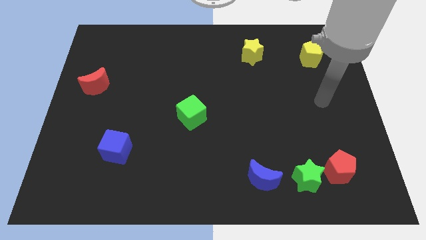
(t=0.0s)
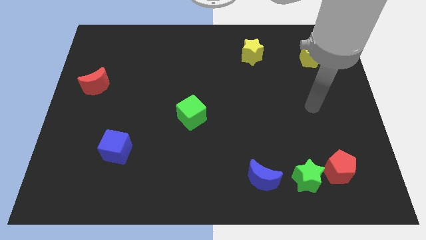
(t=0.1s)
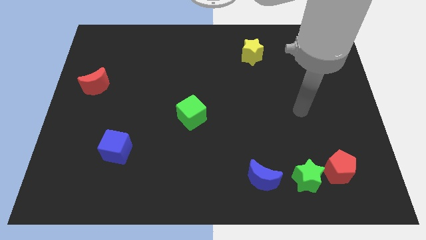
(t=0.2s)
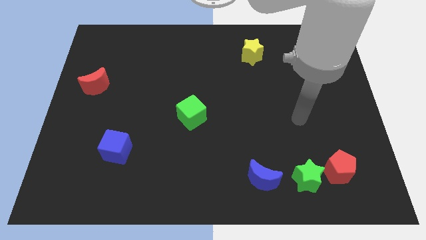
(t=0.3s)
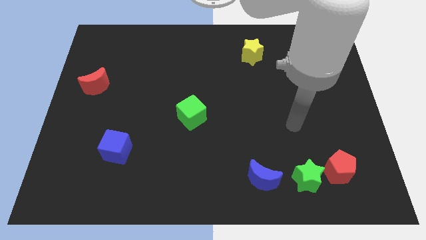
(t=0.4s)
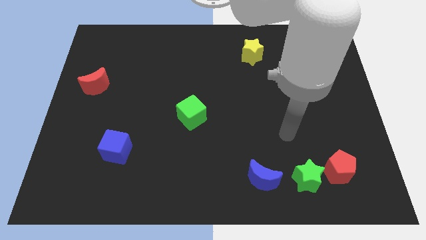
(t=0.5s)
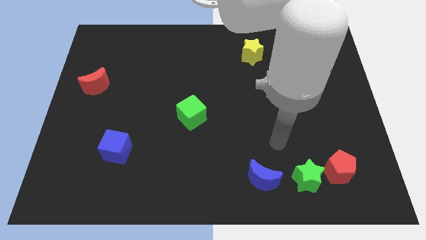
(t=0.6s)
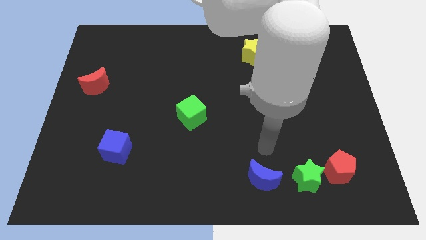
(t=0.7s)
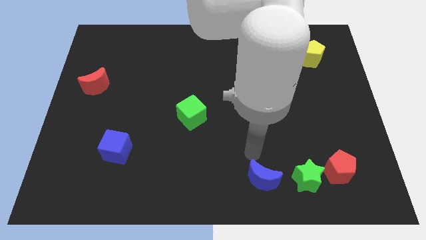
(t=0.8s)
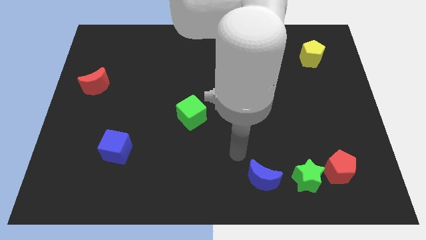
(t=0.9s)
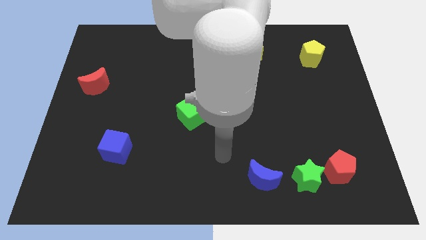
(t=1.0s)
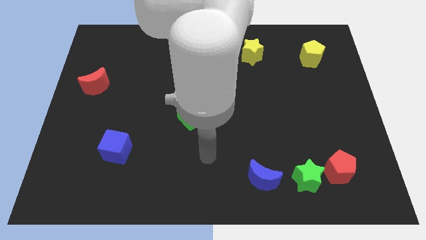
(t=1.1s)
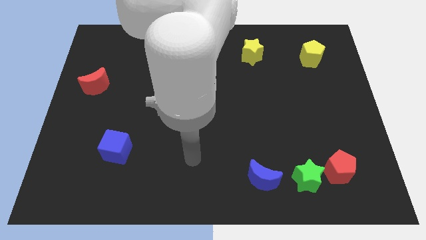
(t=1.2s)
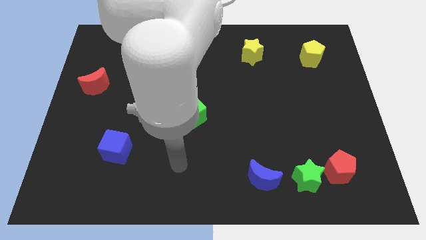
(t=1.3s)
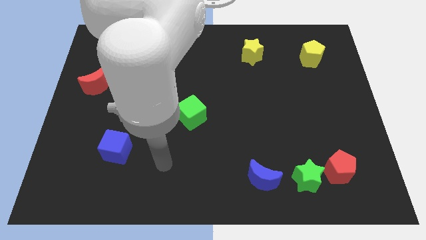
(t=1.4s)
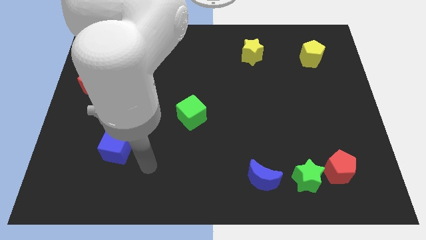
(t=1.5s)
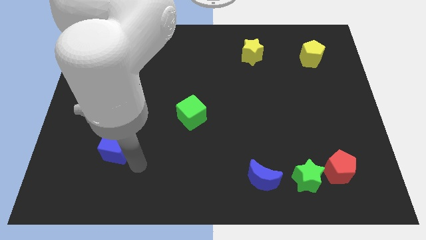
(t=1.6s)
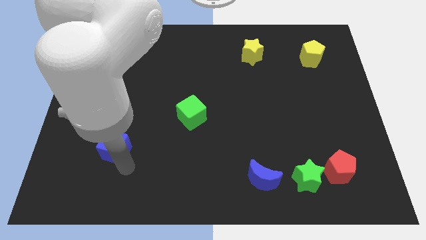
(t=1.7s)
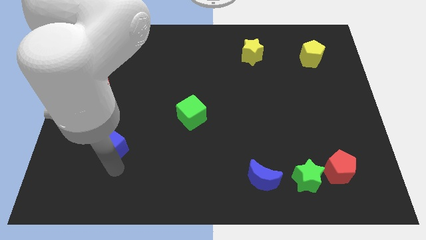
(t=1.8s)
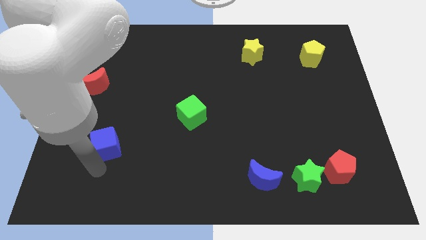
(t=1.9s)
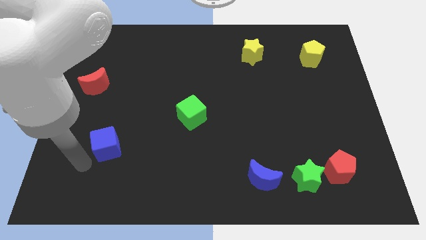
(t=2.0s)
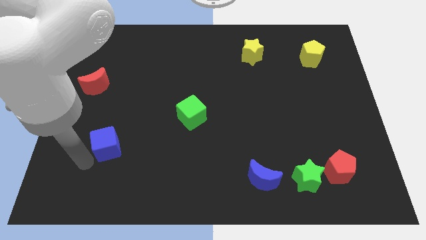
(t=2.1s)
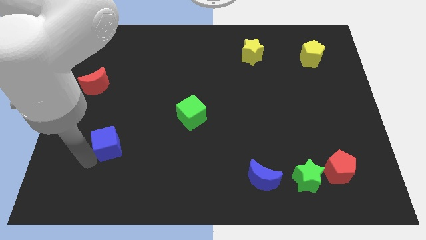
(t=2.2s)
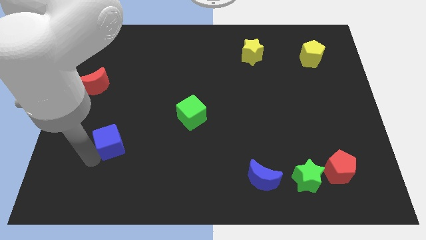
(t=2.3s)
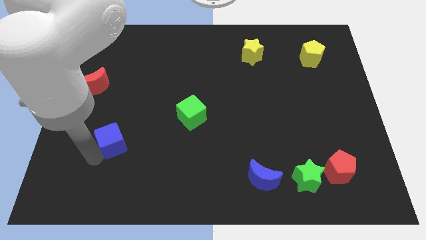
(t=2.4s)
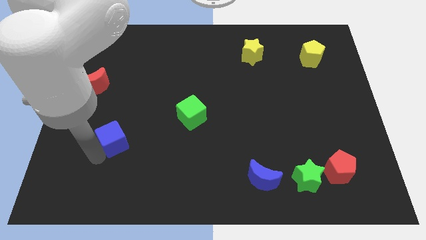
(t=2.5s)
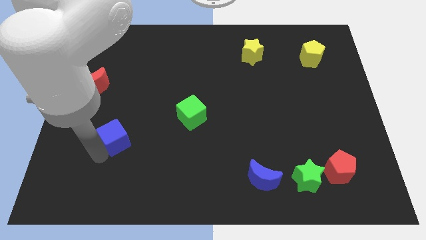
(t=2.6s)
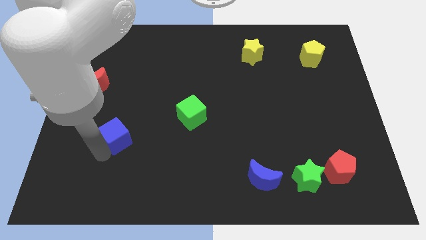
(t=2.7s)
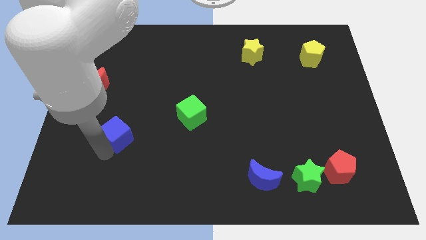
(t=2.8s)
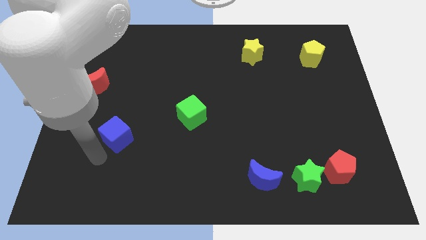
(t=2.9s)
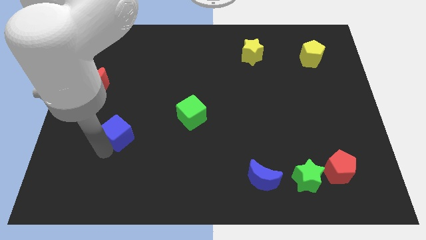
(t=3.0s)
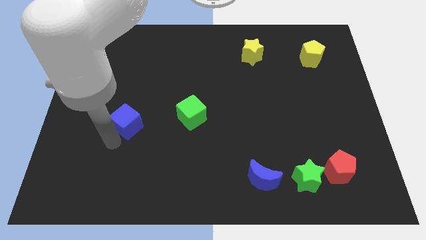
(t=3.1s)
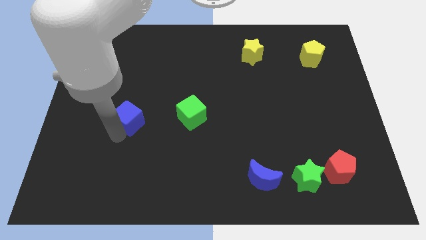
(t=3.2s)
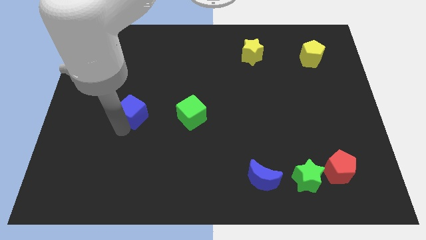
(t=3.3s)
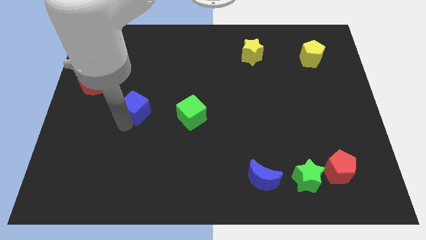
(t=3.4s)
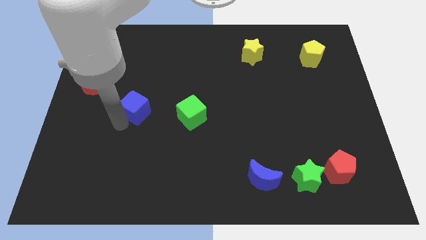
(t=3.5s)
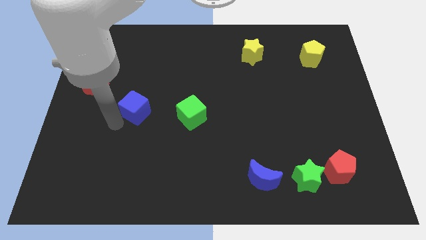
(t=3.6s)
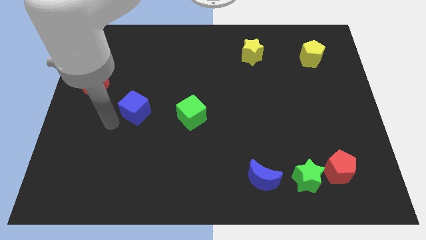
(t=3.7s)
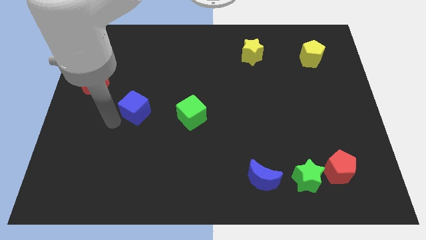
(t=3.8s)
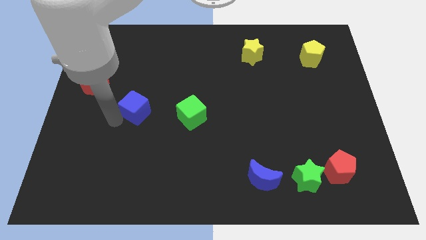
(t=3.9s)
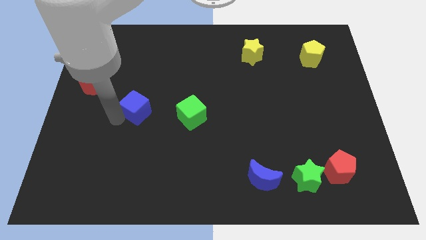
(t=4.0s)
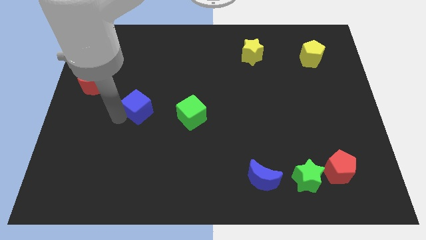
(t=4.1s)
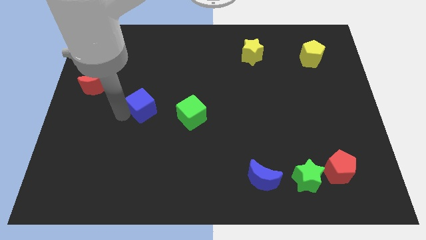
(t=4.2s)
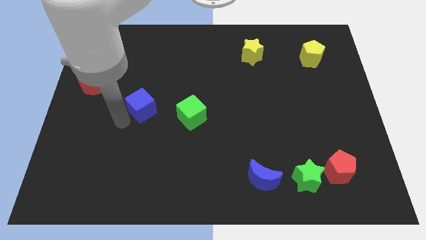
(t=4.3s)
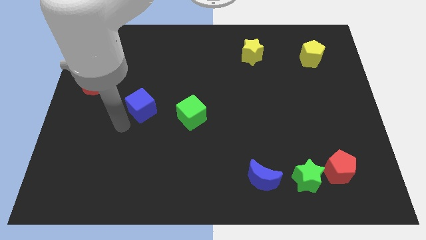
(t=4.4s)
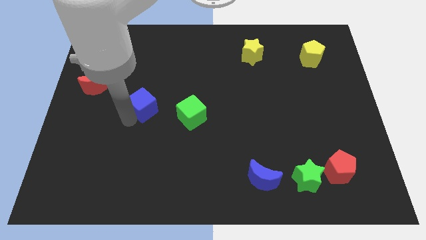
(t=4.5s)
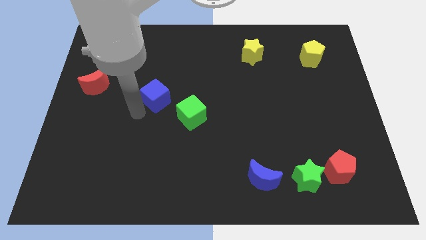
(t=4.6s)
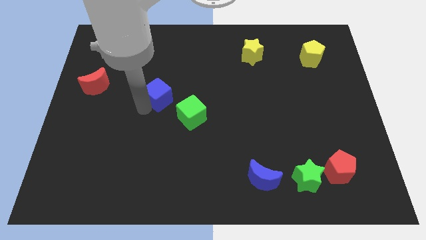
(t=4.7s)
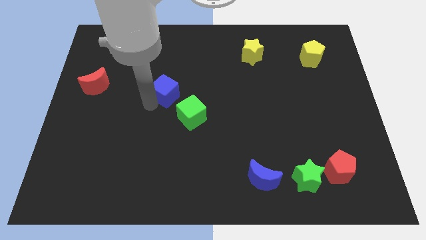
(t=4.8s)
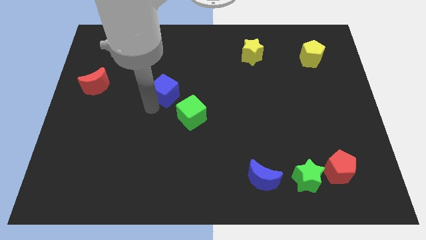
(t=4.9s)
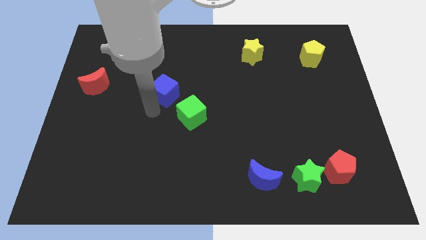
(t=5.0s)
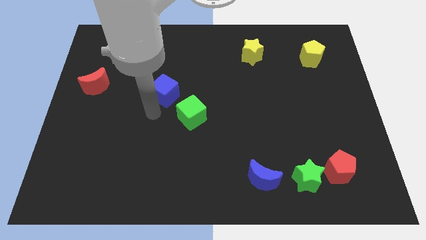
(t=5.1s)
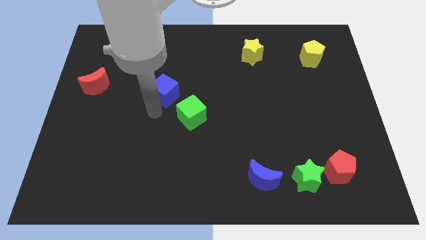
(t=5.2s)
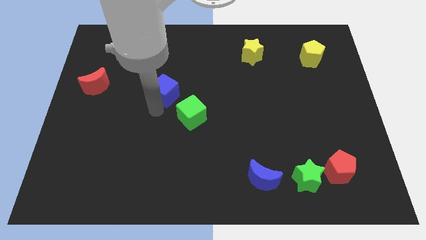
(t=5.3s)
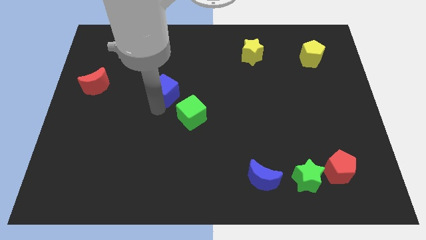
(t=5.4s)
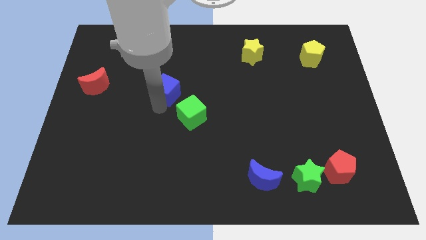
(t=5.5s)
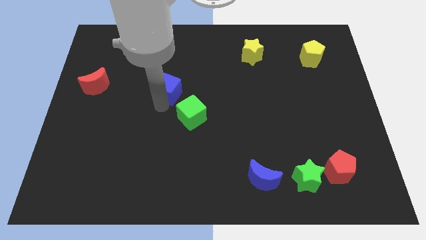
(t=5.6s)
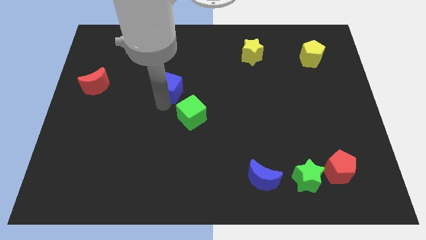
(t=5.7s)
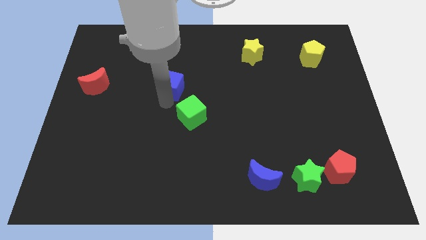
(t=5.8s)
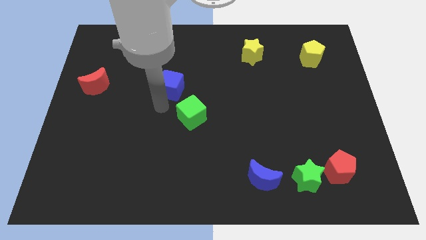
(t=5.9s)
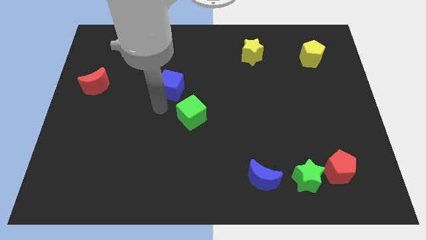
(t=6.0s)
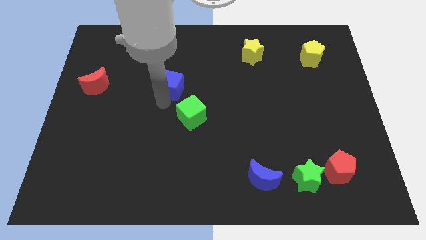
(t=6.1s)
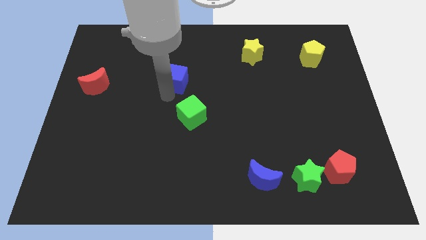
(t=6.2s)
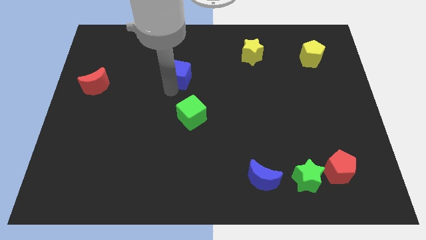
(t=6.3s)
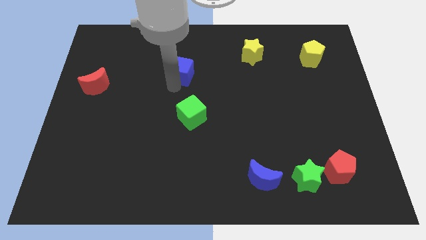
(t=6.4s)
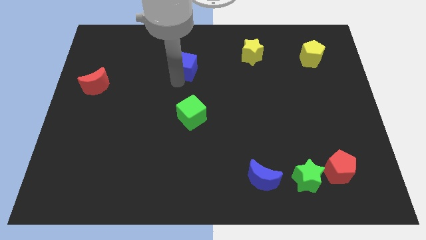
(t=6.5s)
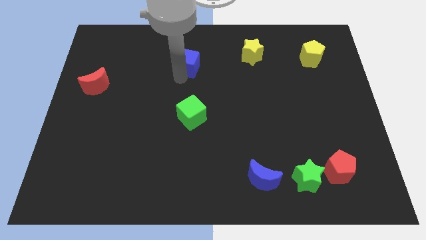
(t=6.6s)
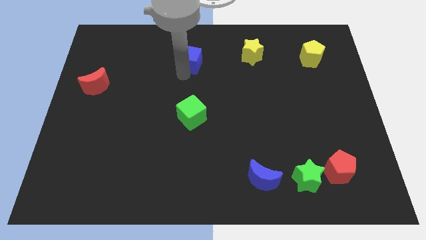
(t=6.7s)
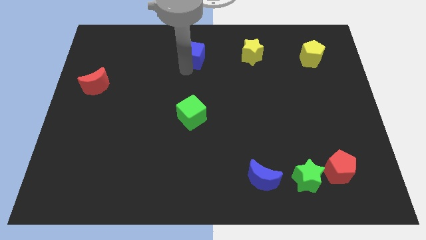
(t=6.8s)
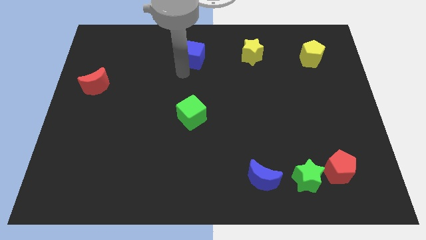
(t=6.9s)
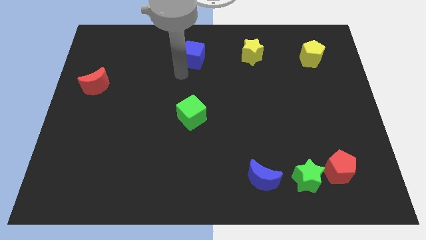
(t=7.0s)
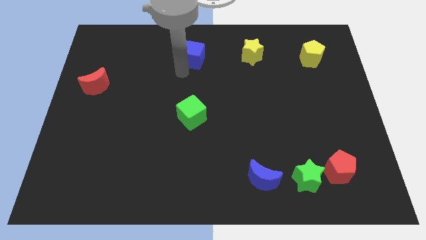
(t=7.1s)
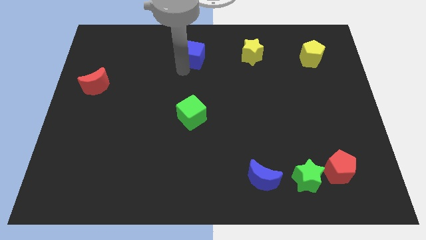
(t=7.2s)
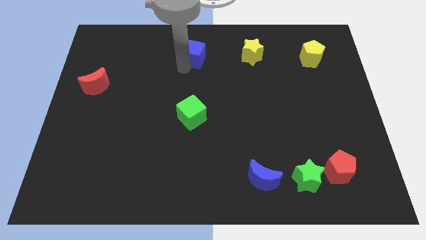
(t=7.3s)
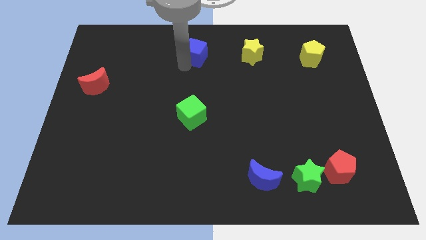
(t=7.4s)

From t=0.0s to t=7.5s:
slide the blue cube to the top side
